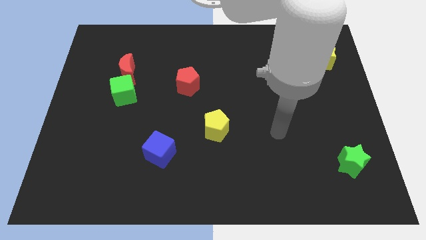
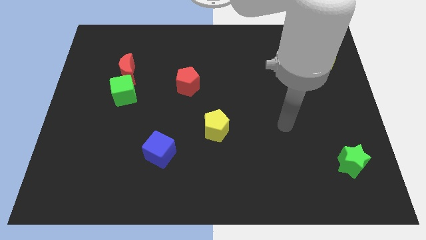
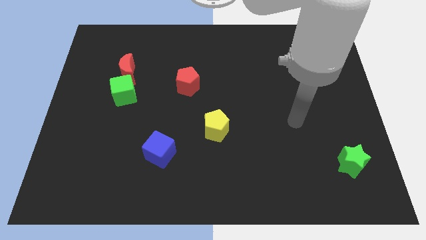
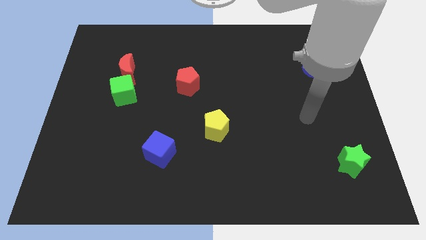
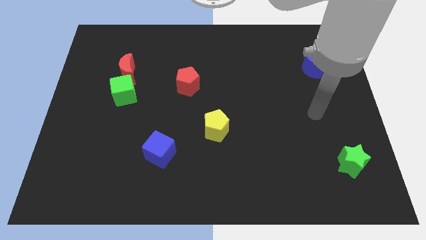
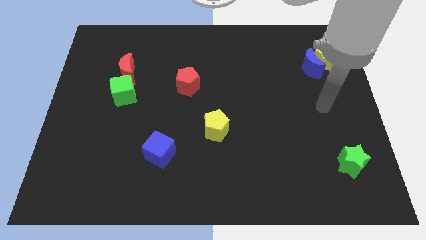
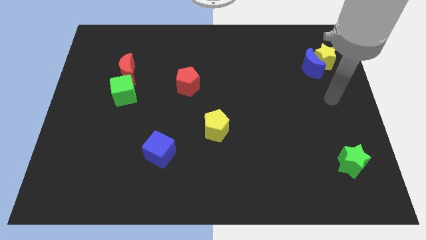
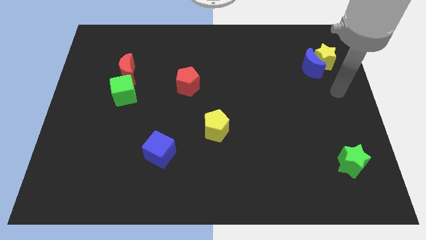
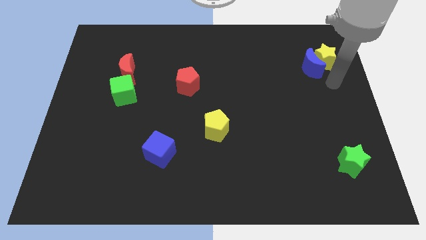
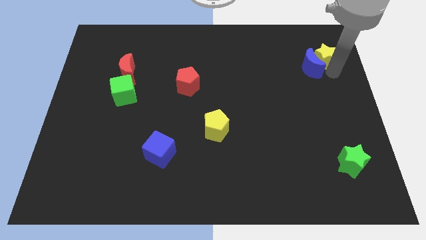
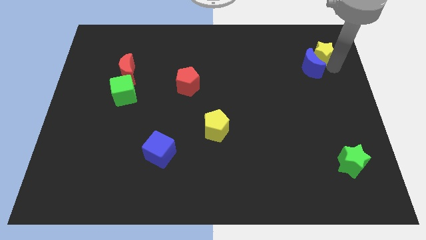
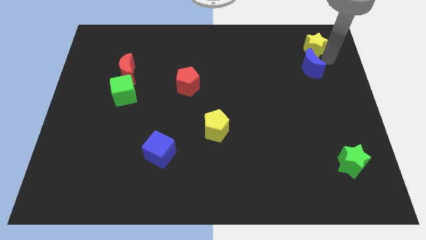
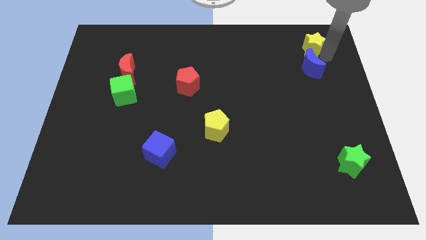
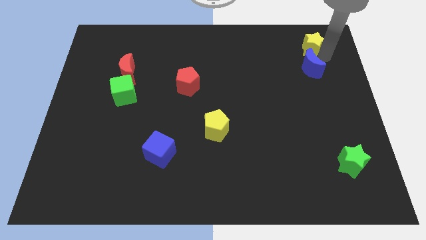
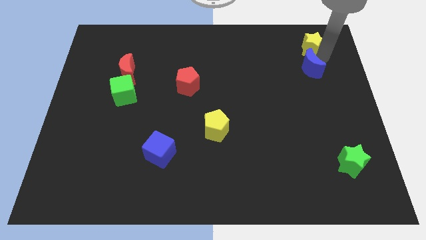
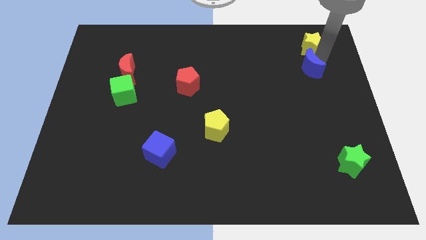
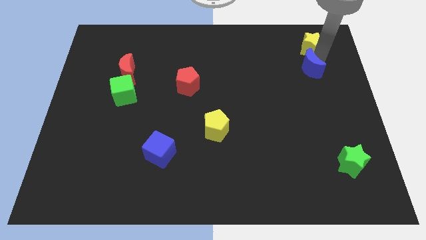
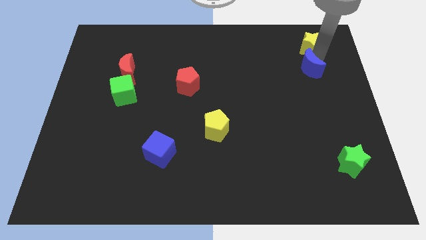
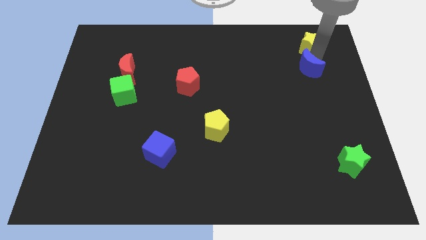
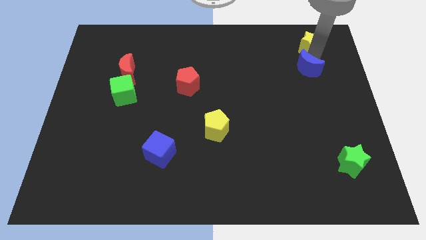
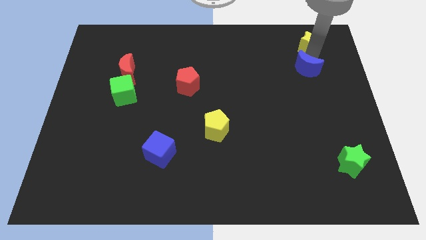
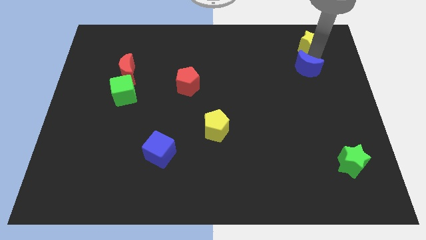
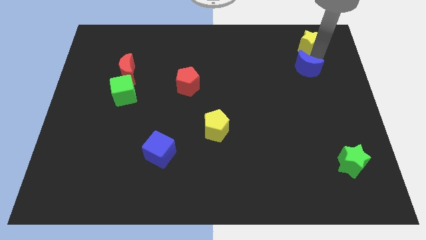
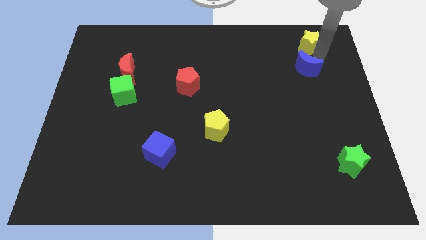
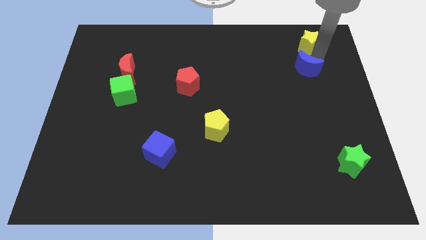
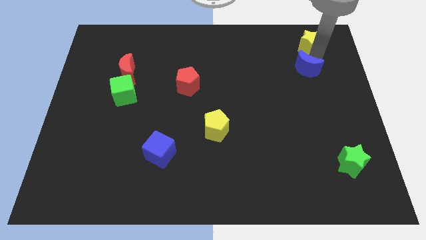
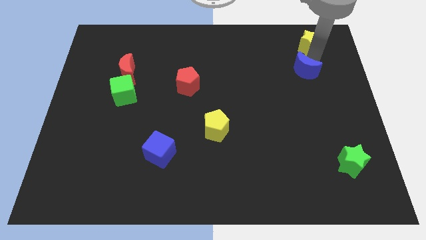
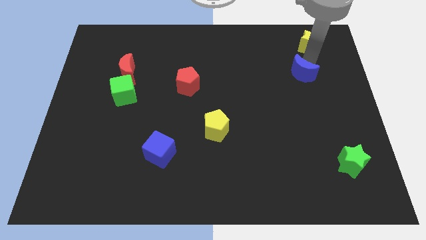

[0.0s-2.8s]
move the blue moon away from the yellow star

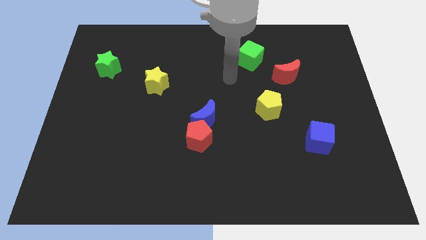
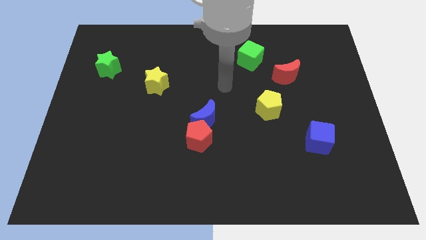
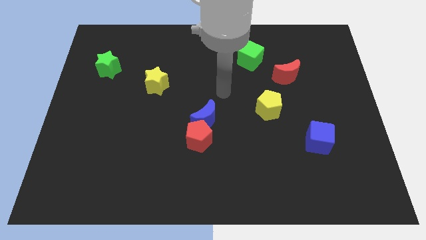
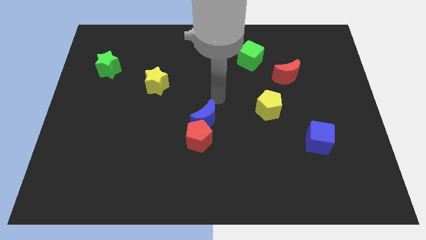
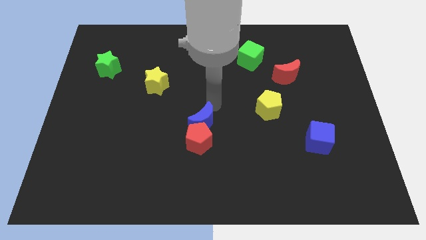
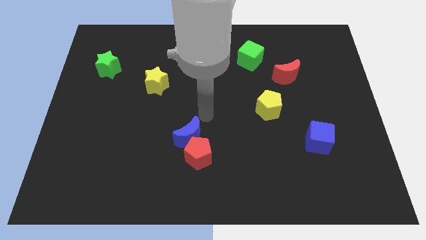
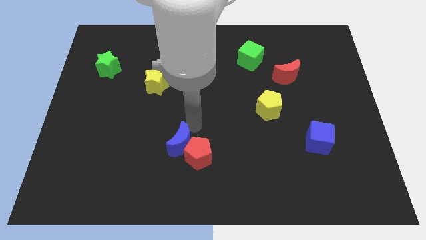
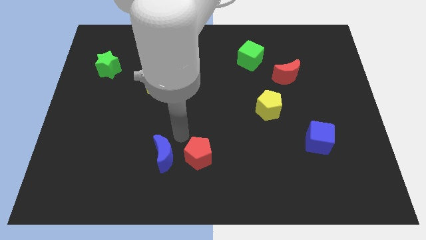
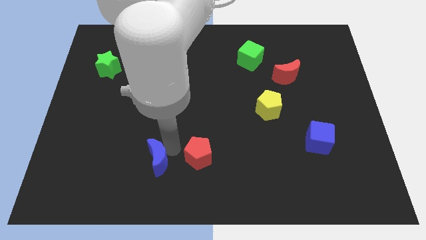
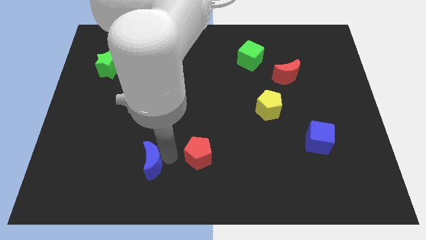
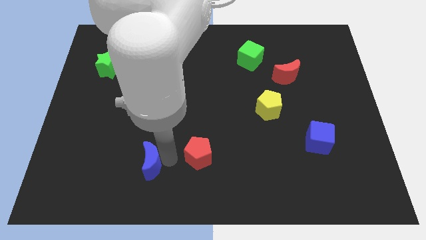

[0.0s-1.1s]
move the red pentagon away from the blue moon

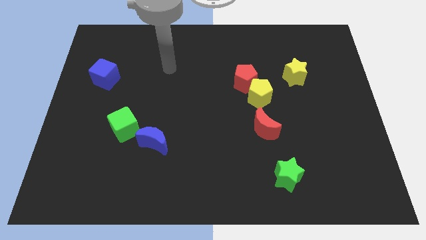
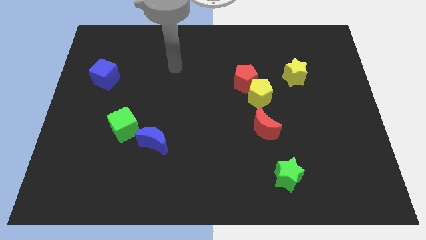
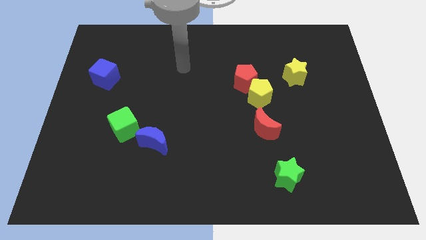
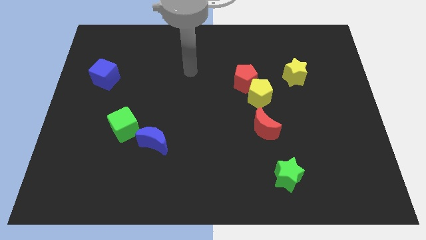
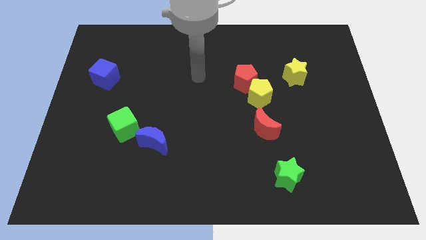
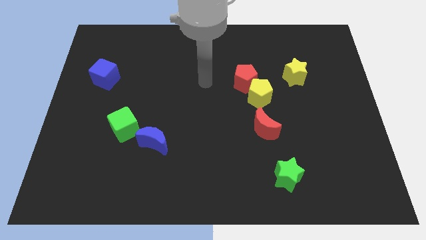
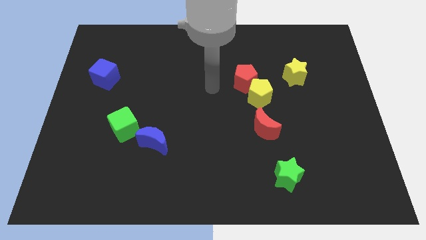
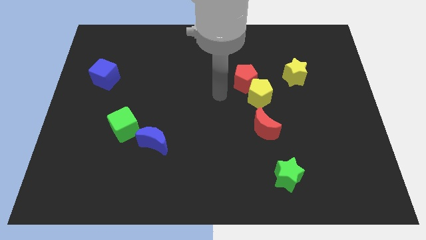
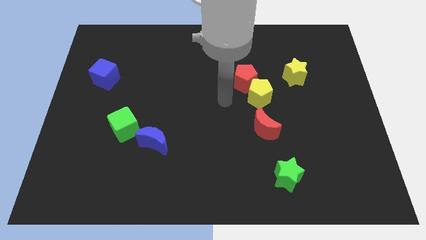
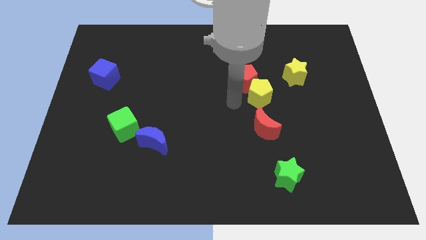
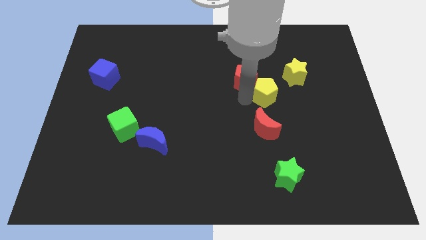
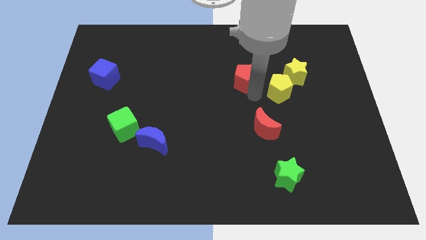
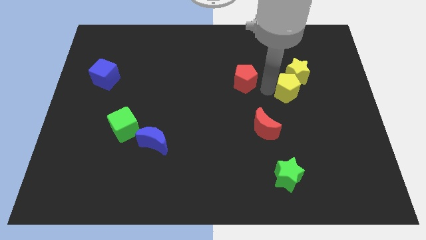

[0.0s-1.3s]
separate the red pentagon from the yellow pentagon

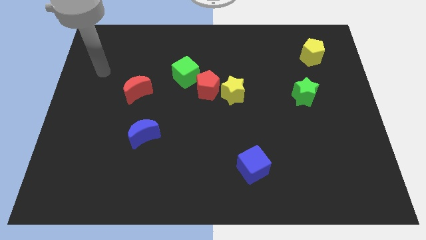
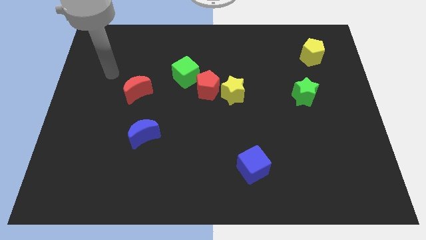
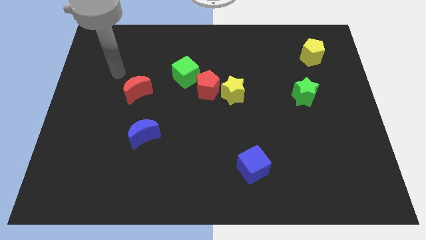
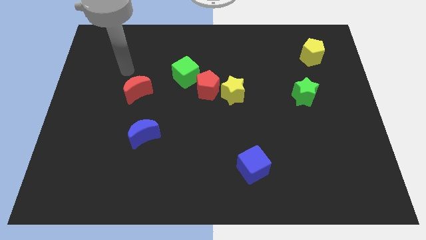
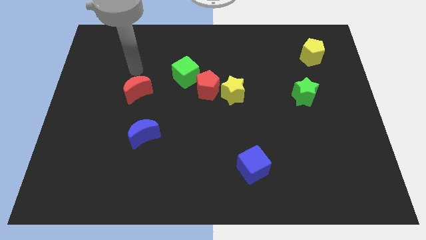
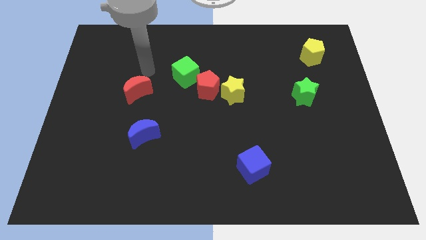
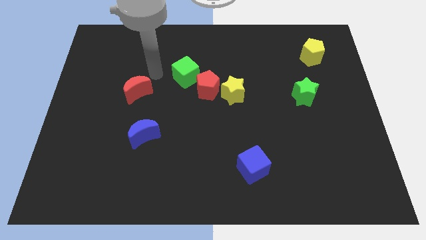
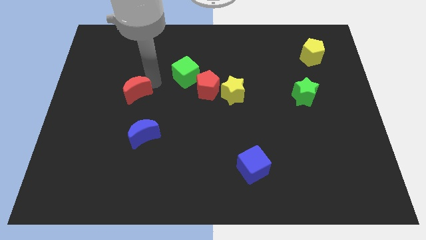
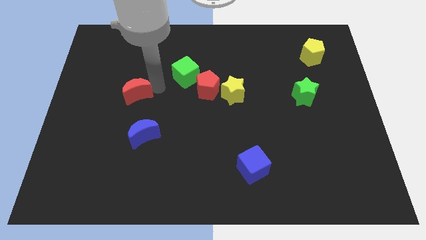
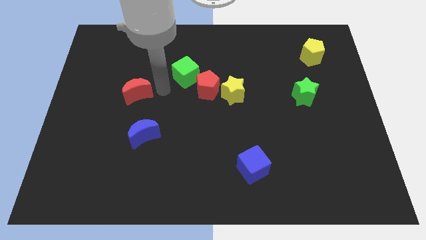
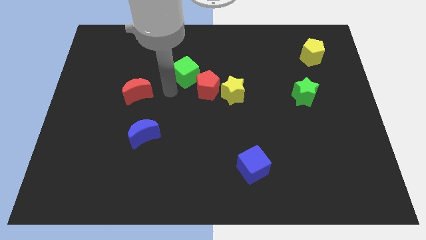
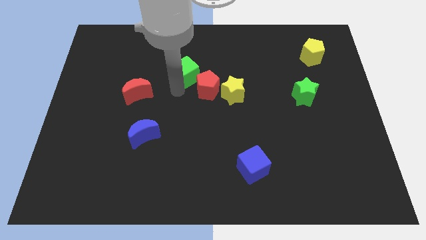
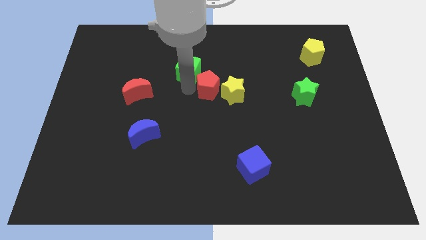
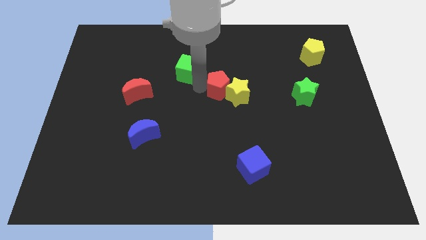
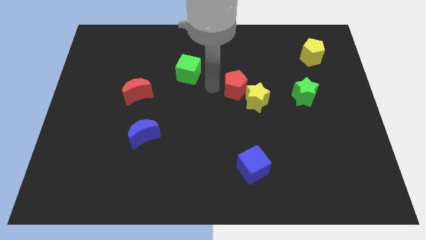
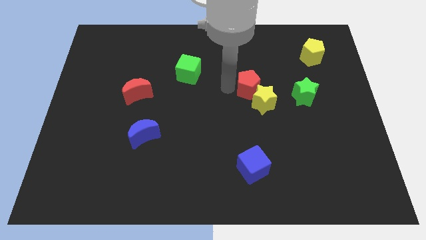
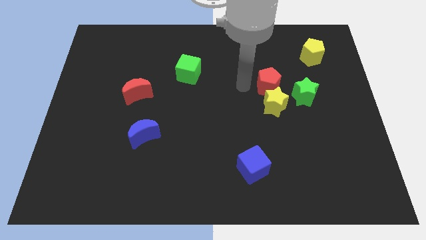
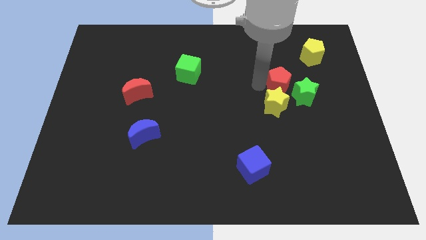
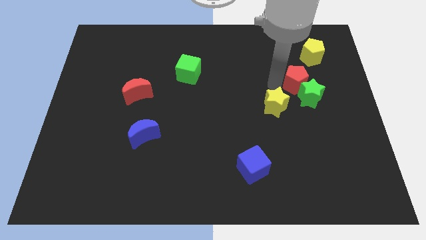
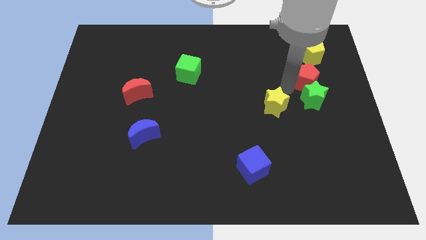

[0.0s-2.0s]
separate the yellow star from the red pentagon

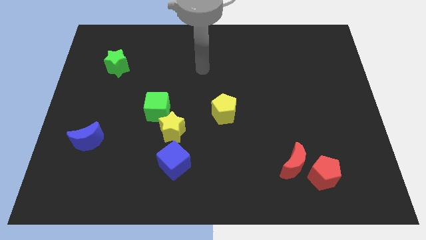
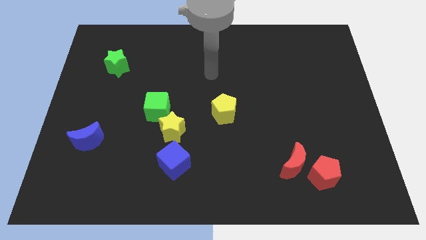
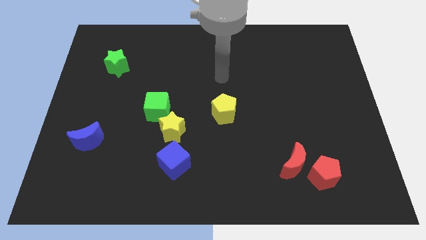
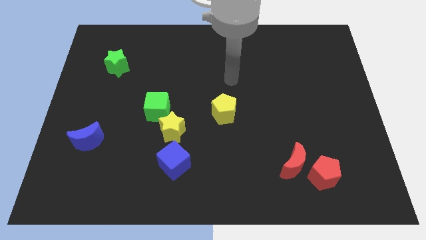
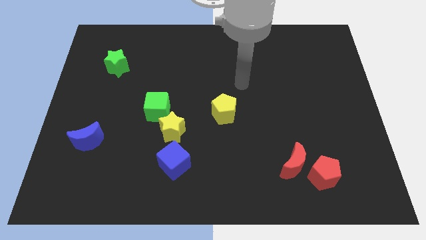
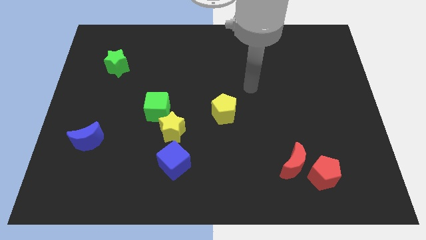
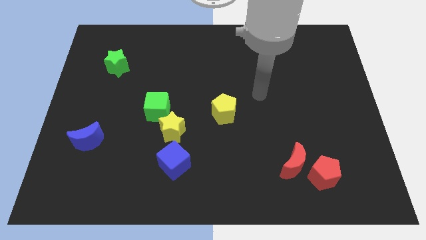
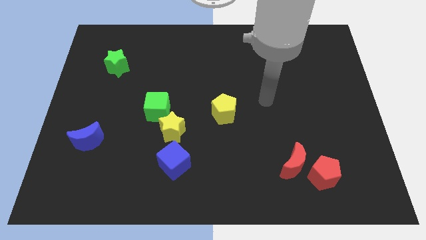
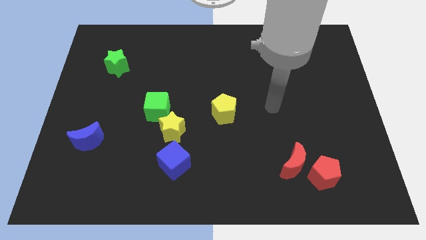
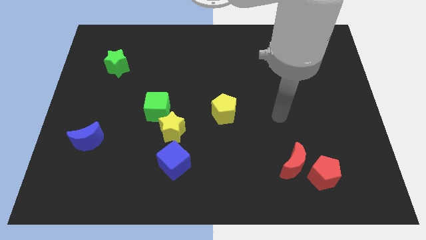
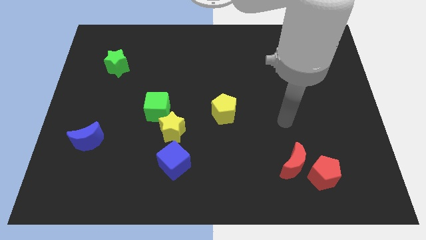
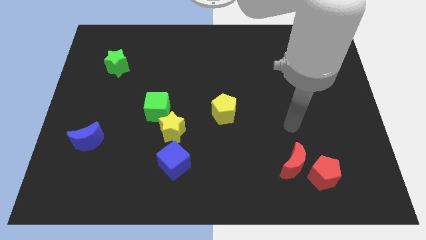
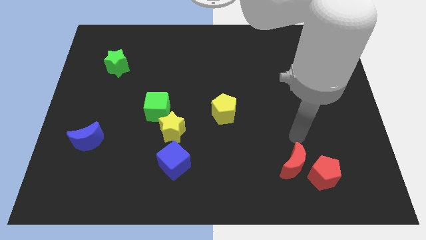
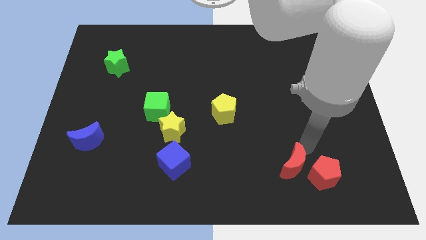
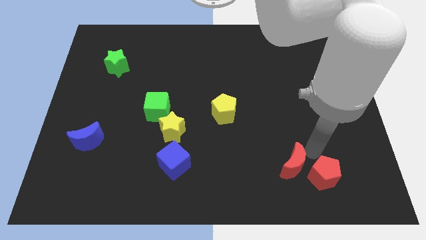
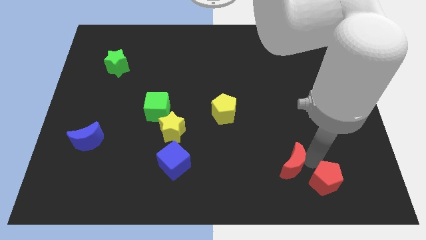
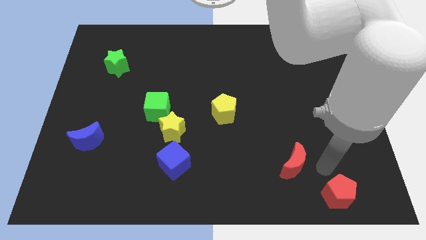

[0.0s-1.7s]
pull the red moon apart from the red pentagon

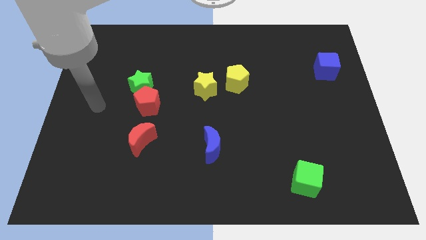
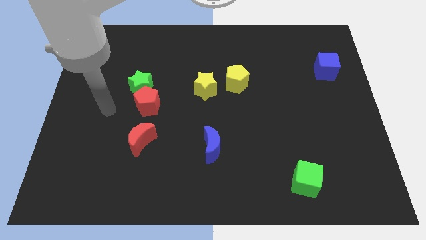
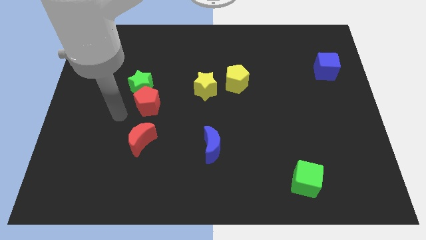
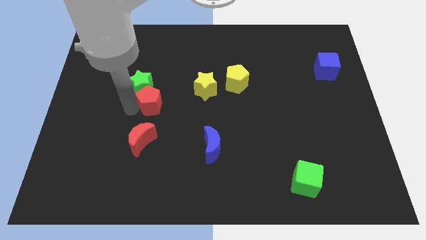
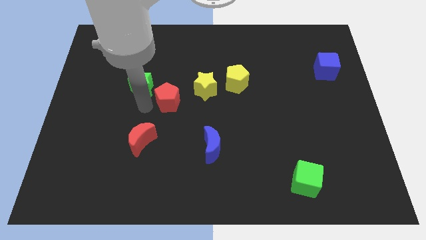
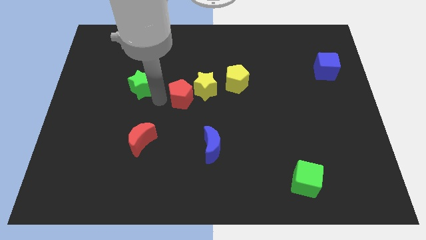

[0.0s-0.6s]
separate the green star from the red pentagon
